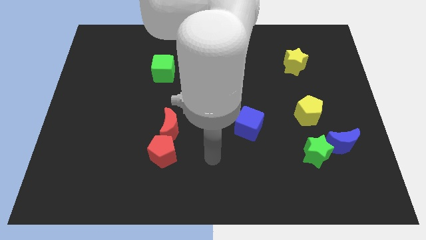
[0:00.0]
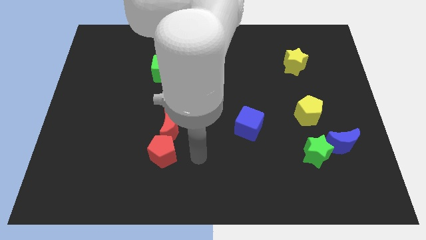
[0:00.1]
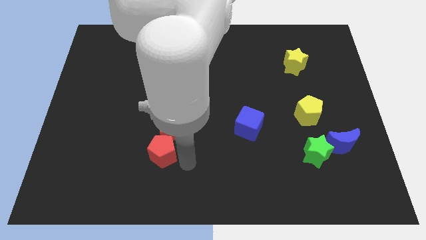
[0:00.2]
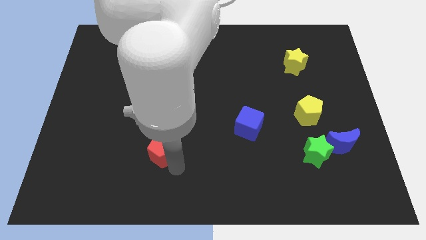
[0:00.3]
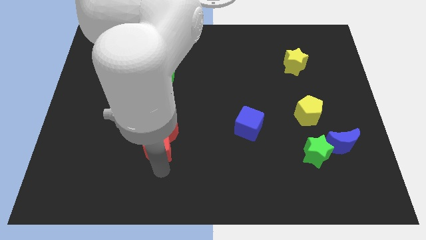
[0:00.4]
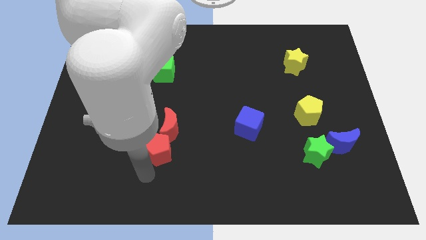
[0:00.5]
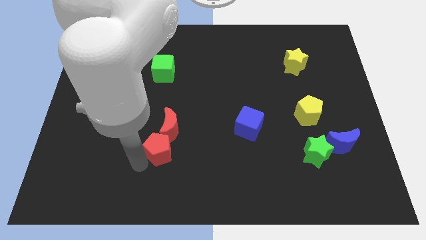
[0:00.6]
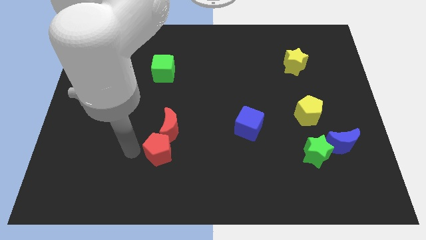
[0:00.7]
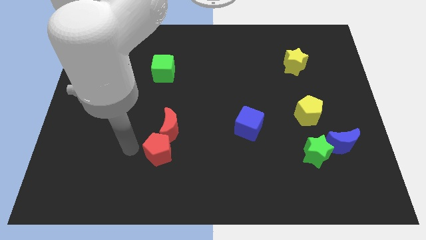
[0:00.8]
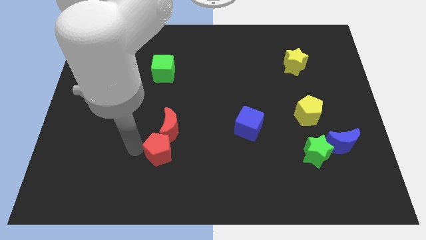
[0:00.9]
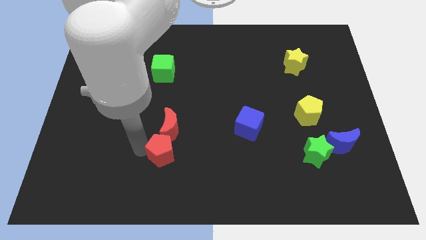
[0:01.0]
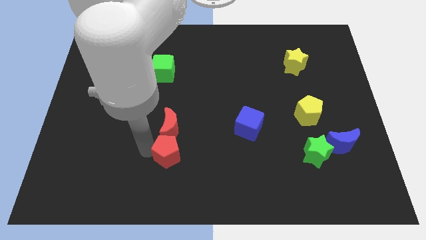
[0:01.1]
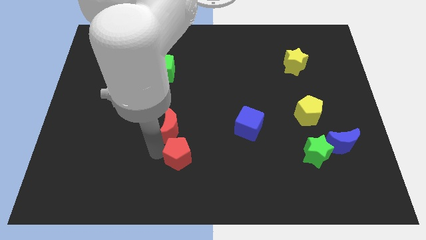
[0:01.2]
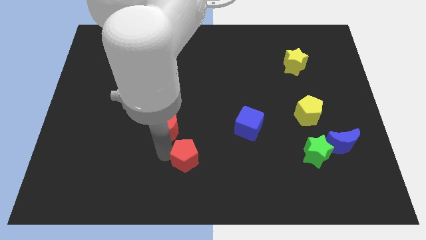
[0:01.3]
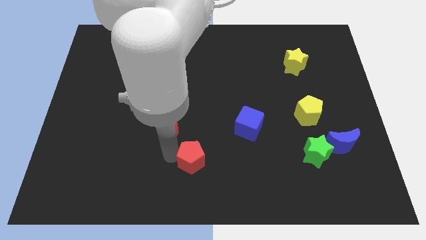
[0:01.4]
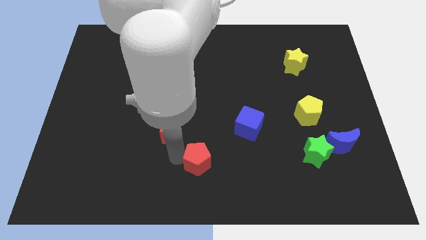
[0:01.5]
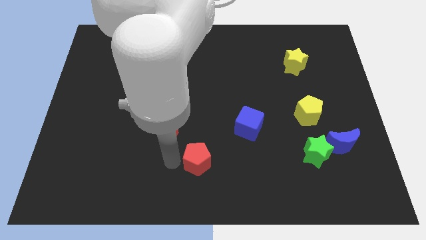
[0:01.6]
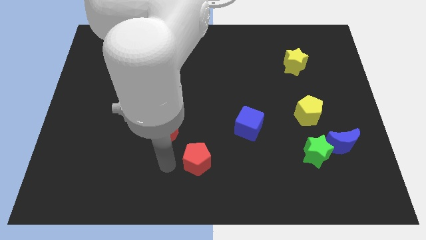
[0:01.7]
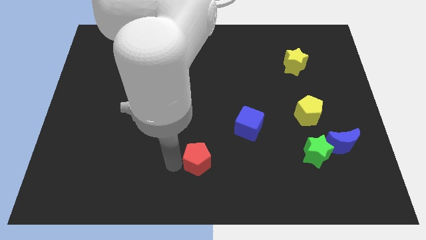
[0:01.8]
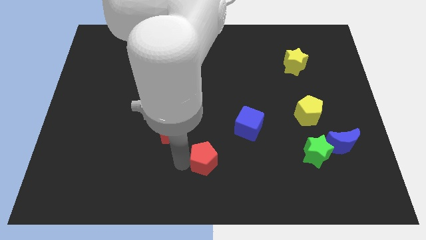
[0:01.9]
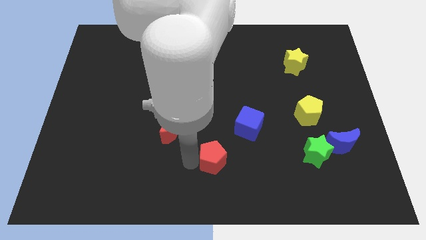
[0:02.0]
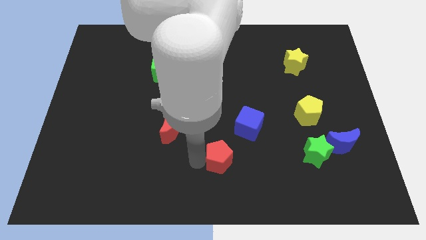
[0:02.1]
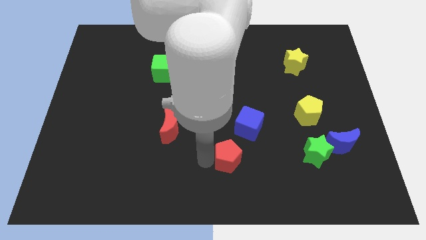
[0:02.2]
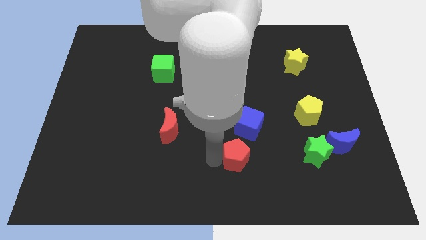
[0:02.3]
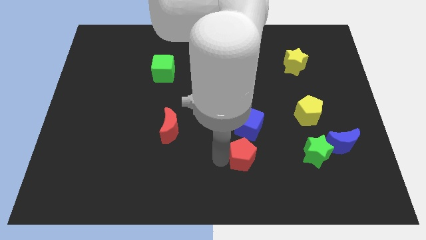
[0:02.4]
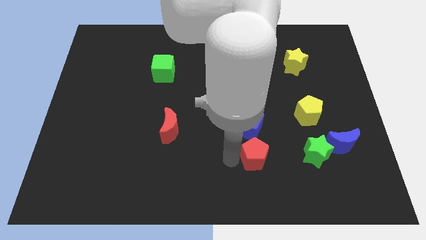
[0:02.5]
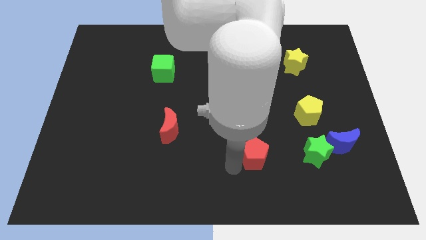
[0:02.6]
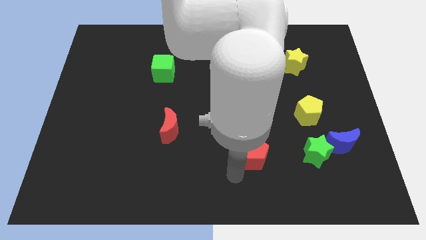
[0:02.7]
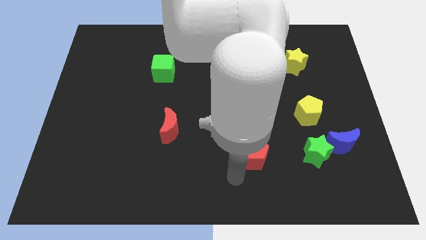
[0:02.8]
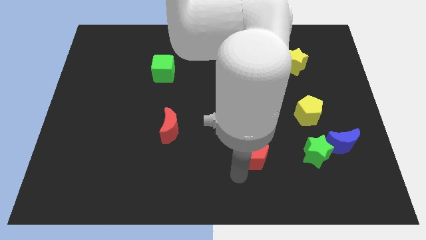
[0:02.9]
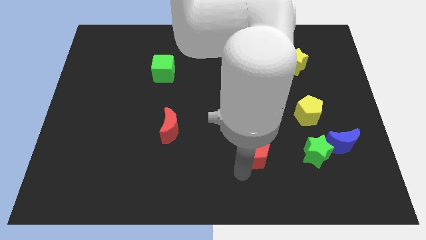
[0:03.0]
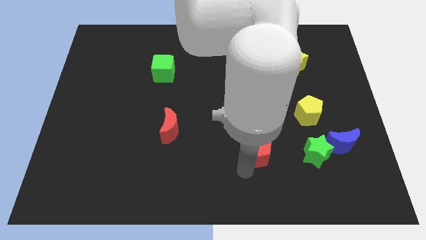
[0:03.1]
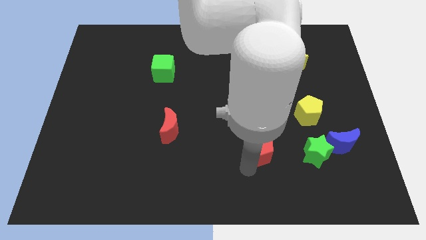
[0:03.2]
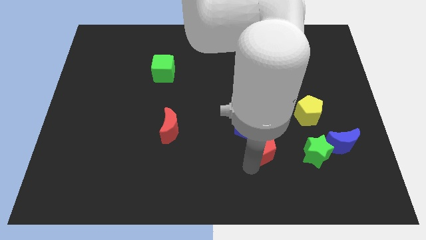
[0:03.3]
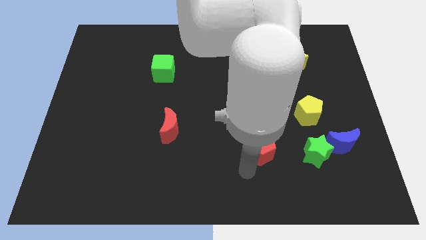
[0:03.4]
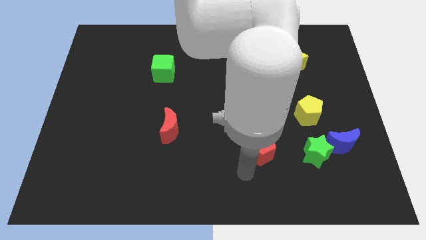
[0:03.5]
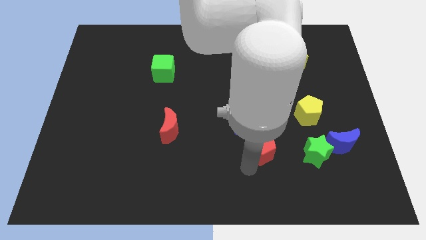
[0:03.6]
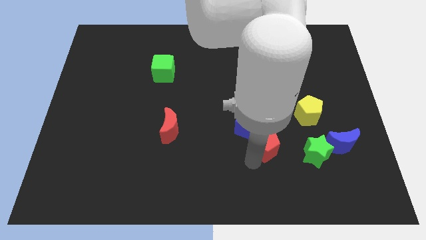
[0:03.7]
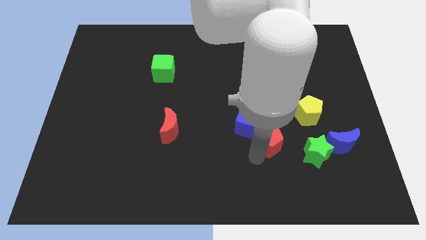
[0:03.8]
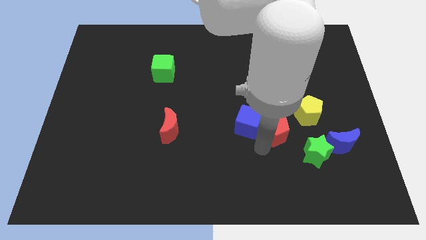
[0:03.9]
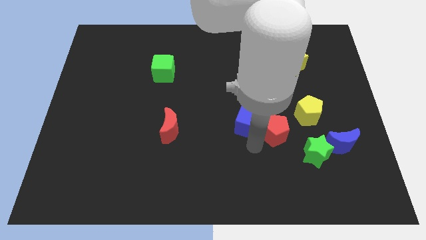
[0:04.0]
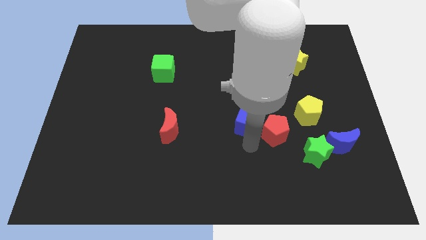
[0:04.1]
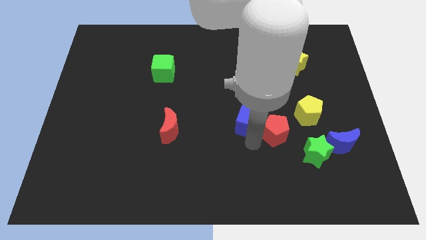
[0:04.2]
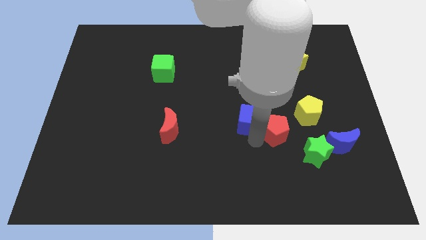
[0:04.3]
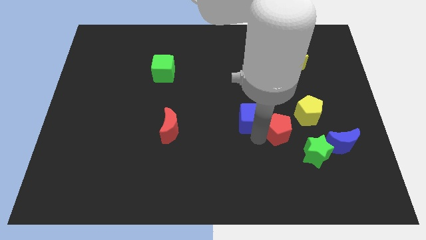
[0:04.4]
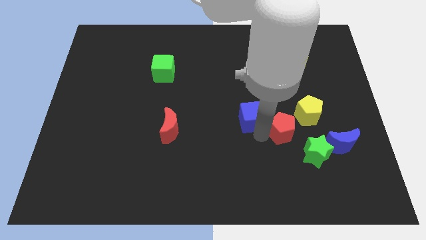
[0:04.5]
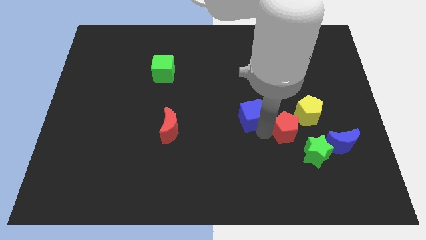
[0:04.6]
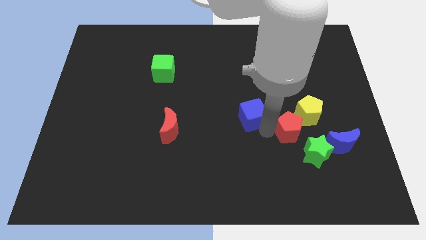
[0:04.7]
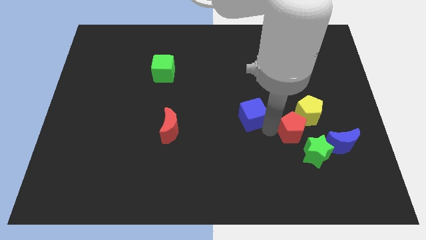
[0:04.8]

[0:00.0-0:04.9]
slide the red pentagon towards the yellow pentagon

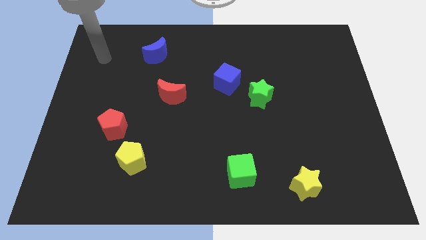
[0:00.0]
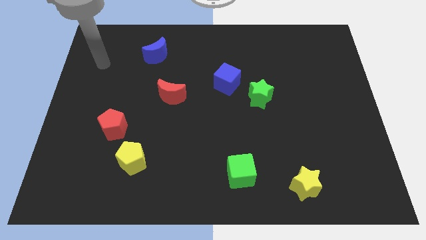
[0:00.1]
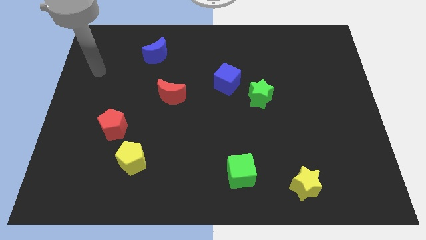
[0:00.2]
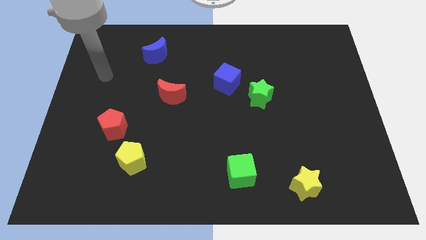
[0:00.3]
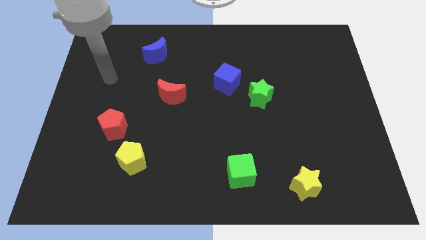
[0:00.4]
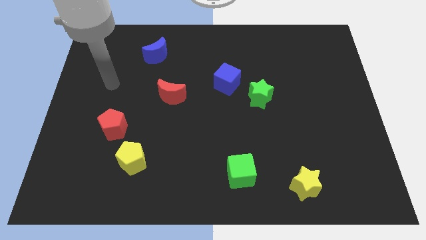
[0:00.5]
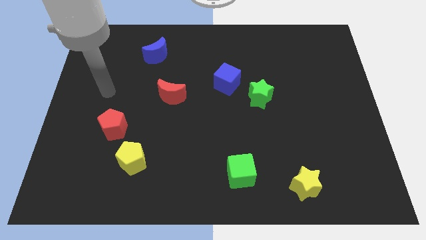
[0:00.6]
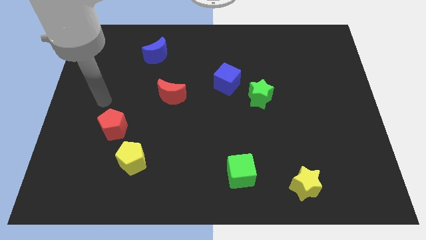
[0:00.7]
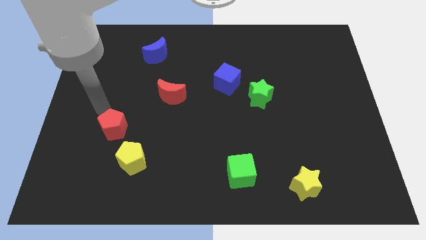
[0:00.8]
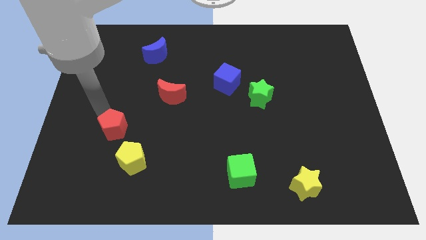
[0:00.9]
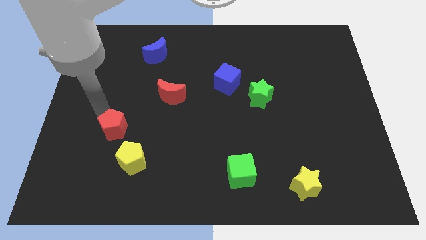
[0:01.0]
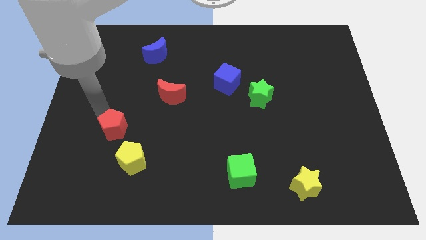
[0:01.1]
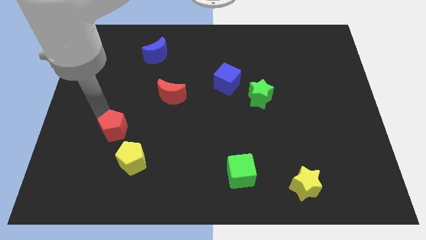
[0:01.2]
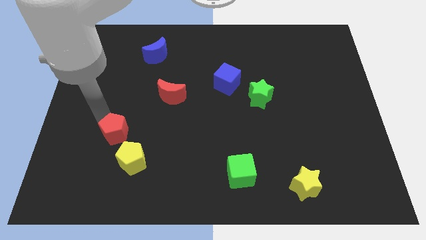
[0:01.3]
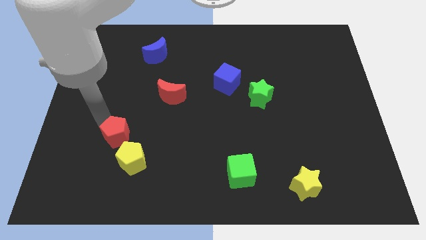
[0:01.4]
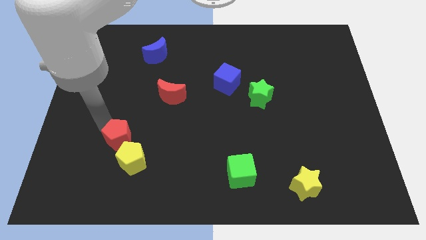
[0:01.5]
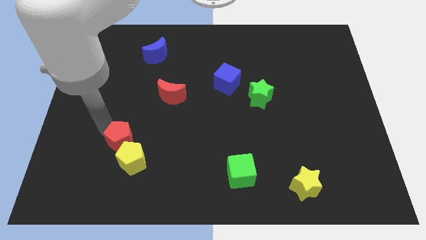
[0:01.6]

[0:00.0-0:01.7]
put the red pentagon next to the yellow pentagon

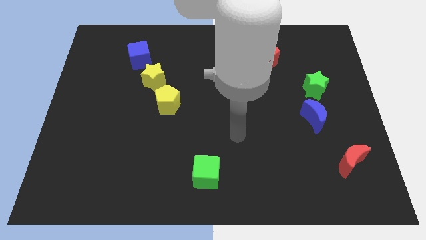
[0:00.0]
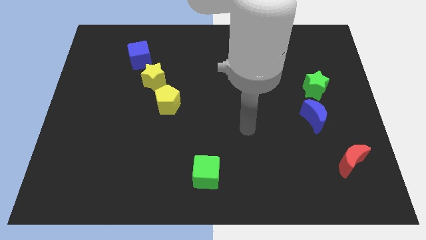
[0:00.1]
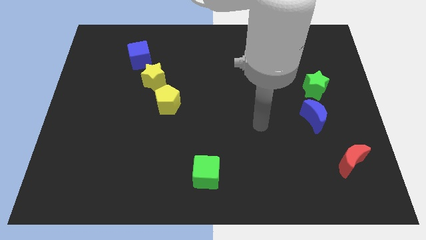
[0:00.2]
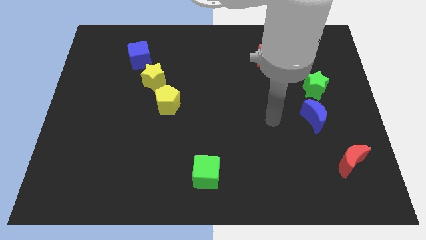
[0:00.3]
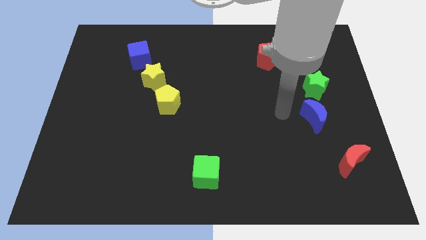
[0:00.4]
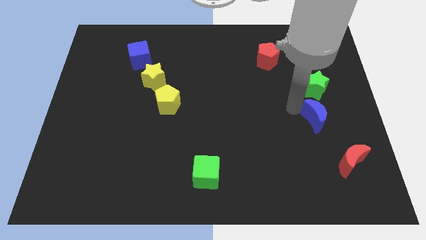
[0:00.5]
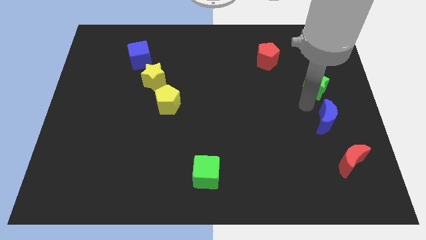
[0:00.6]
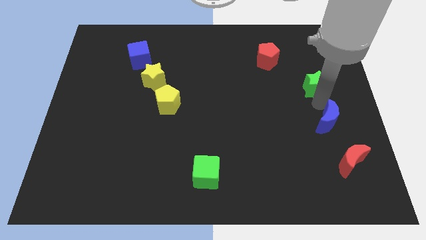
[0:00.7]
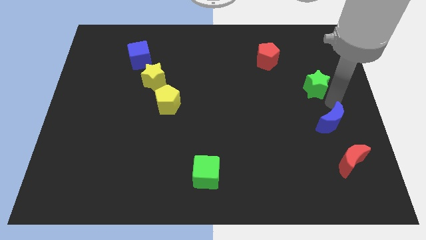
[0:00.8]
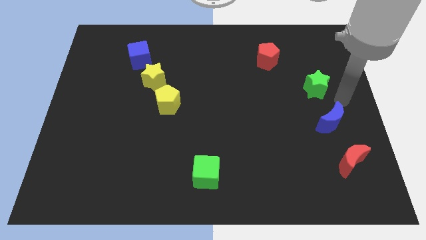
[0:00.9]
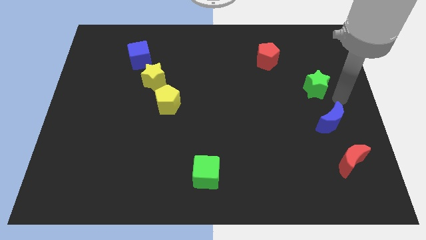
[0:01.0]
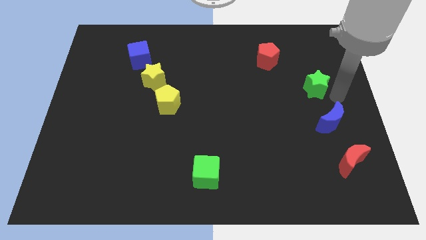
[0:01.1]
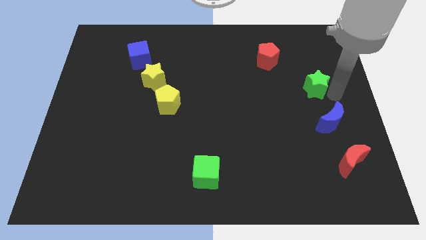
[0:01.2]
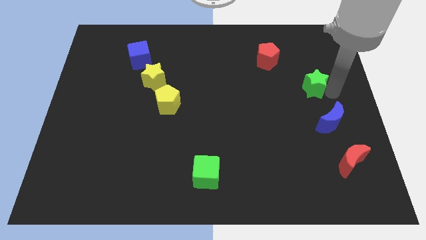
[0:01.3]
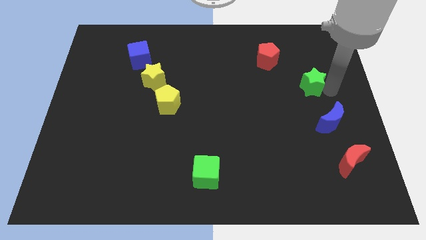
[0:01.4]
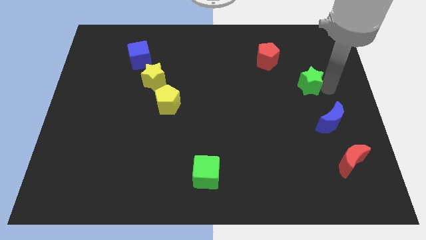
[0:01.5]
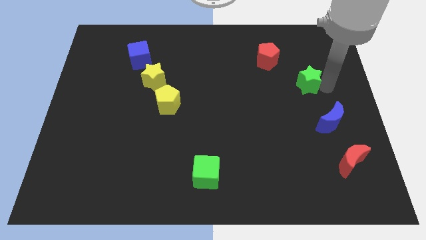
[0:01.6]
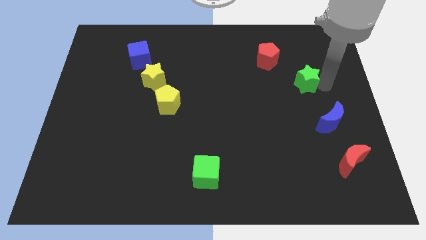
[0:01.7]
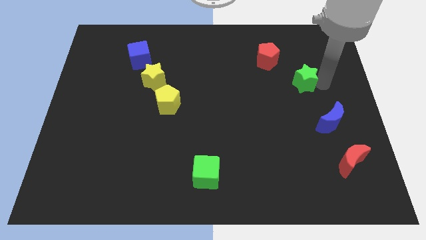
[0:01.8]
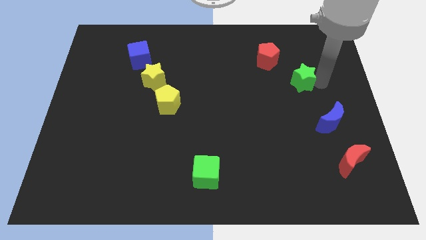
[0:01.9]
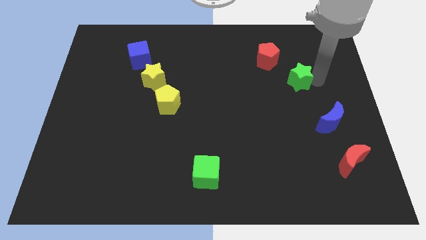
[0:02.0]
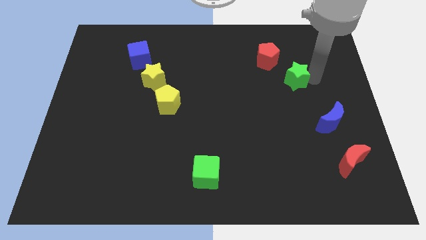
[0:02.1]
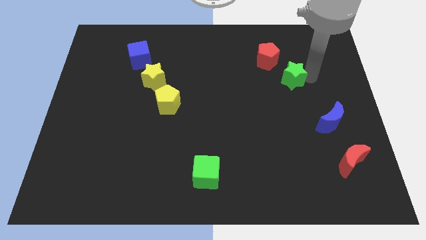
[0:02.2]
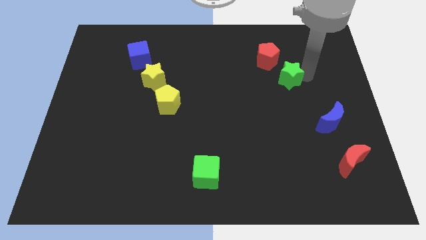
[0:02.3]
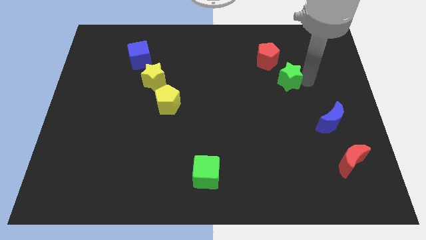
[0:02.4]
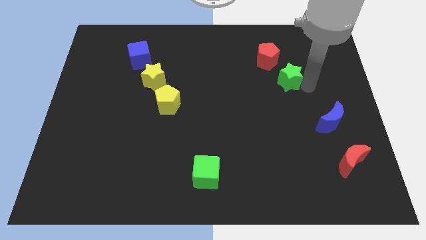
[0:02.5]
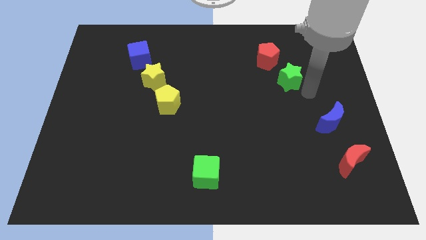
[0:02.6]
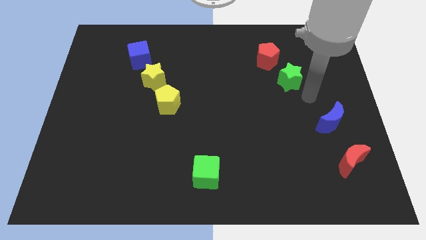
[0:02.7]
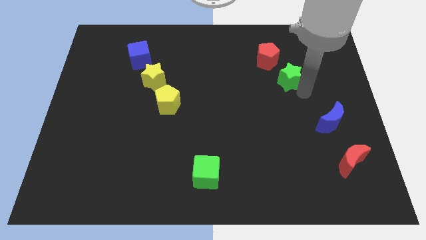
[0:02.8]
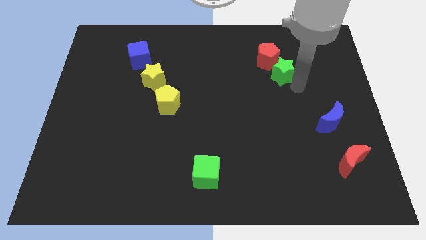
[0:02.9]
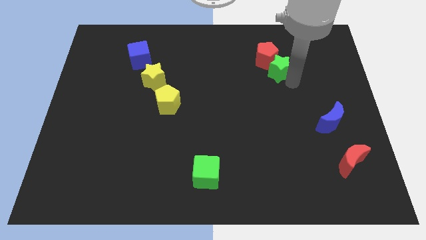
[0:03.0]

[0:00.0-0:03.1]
put the green star close to the red pentagon
